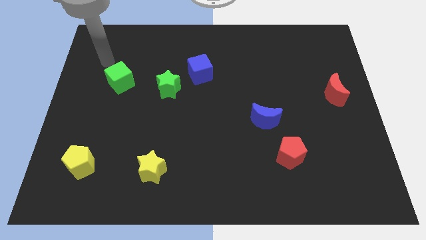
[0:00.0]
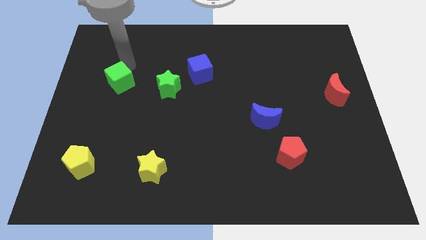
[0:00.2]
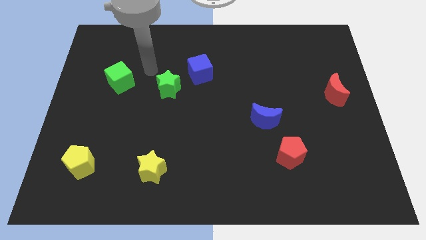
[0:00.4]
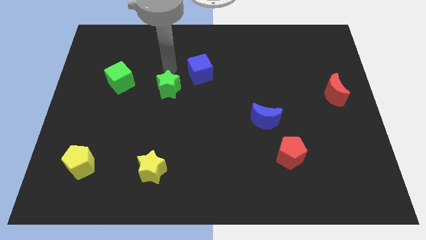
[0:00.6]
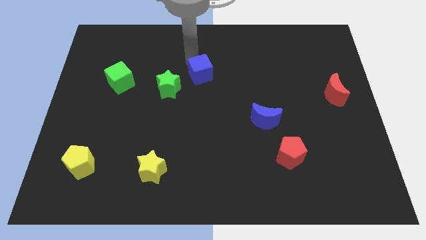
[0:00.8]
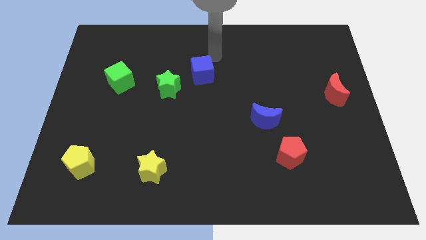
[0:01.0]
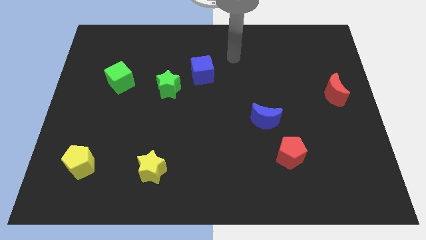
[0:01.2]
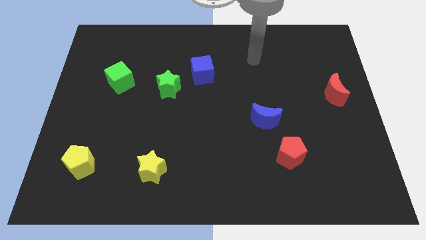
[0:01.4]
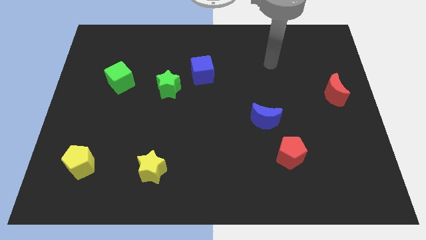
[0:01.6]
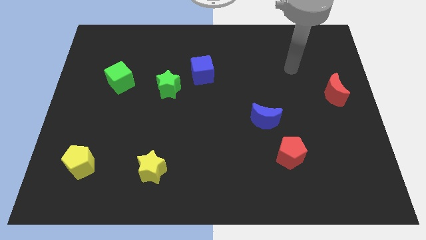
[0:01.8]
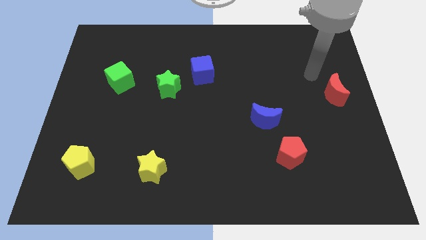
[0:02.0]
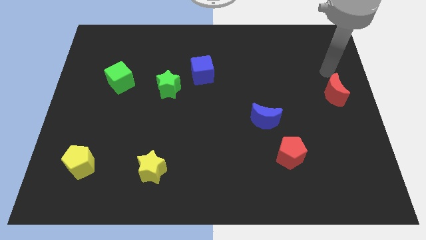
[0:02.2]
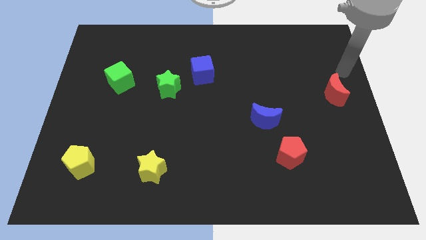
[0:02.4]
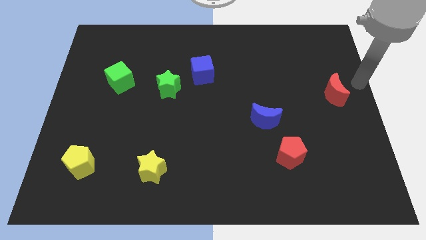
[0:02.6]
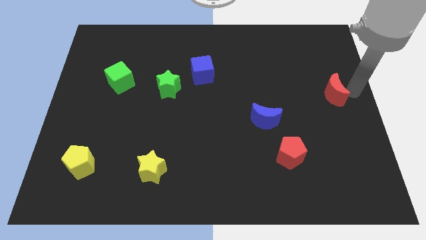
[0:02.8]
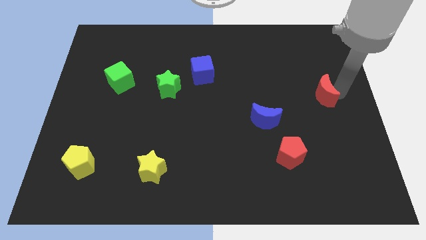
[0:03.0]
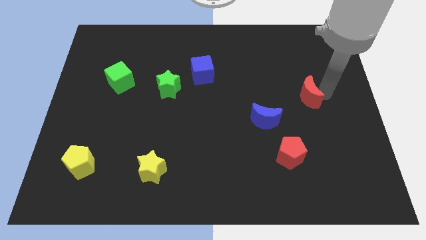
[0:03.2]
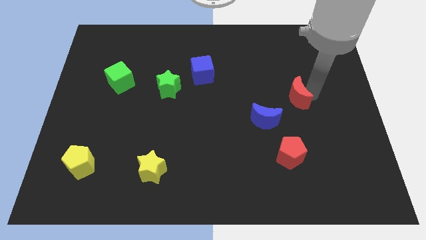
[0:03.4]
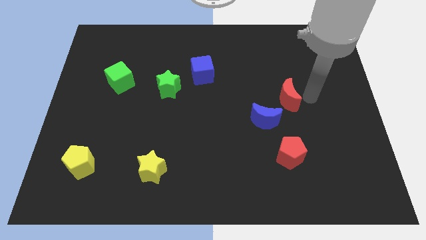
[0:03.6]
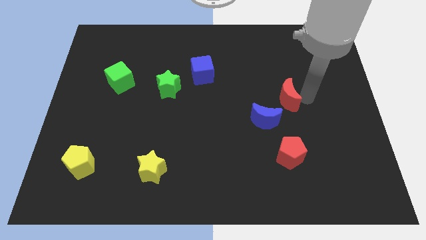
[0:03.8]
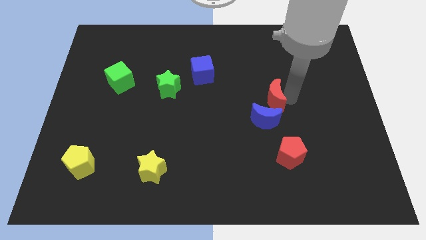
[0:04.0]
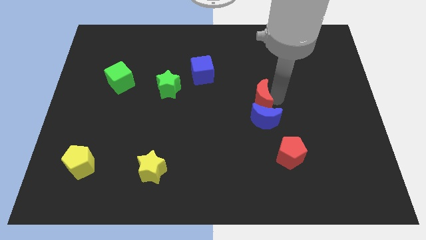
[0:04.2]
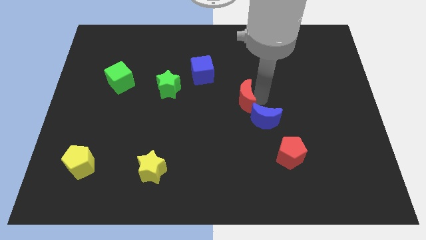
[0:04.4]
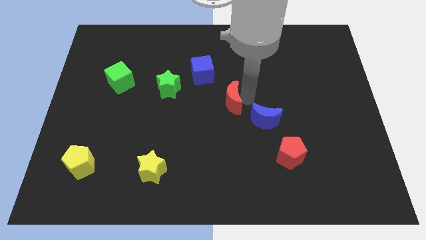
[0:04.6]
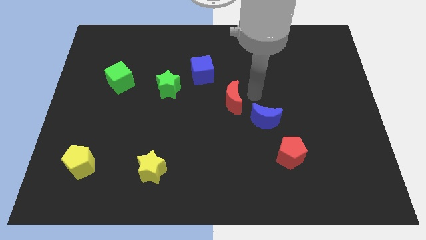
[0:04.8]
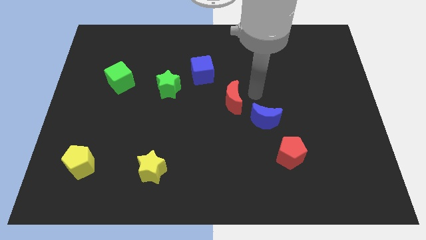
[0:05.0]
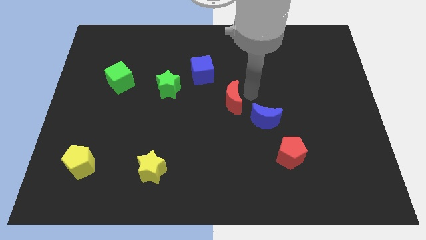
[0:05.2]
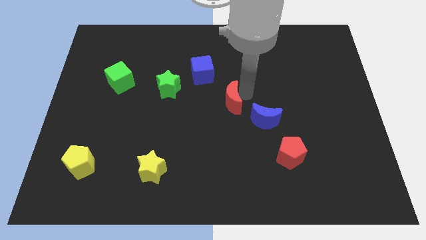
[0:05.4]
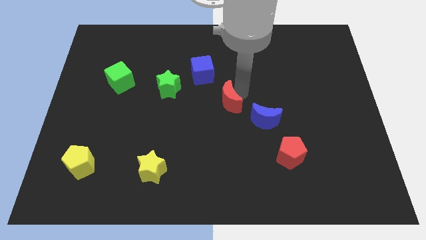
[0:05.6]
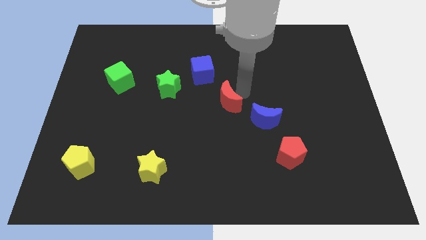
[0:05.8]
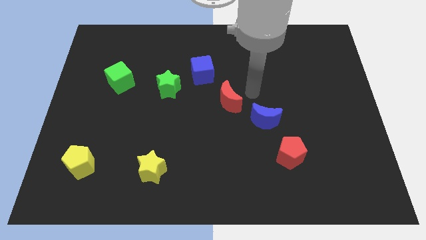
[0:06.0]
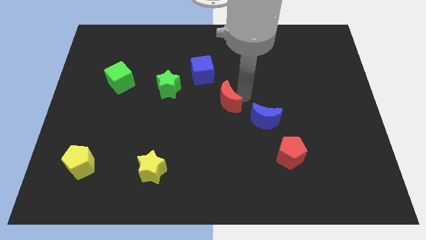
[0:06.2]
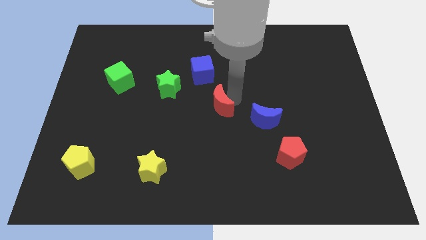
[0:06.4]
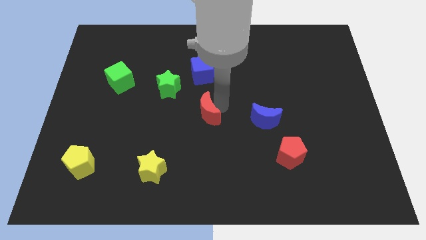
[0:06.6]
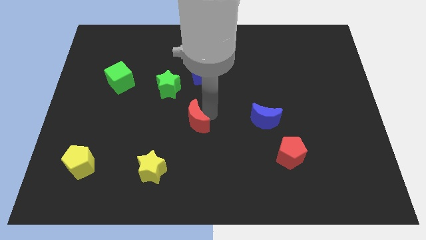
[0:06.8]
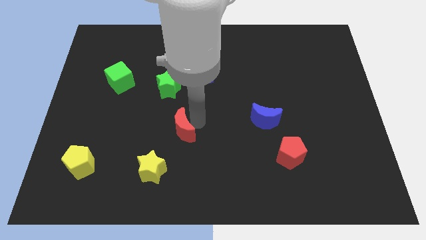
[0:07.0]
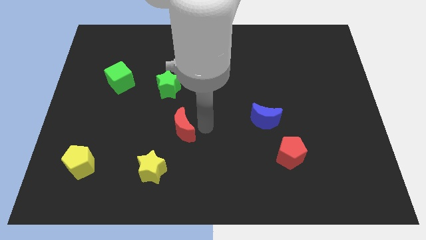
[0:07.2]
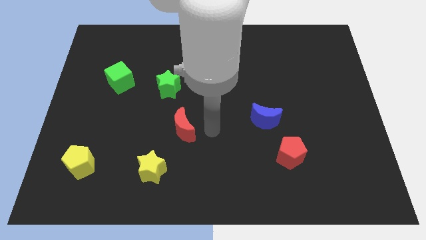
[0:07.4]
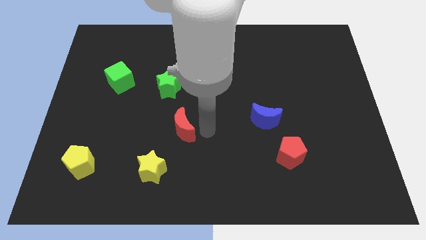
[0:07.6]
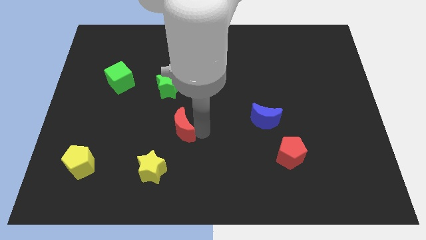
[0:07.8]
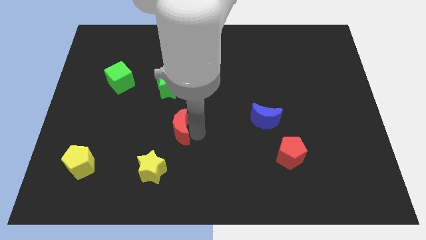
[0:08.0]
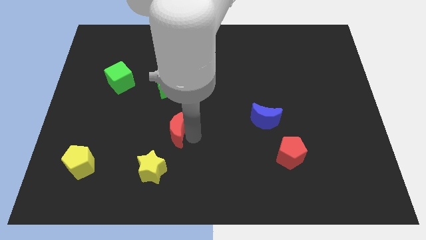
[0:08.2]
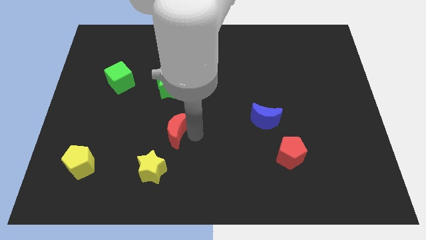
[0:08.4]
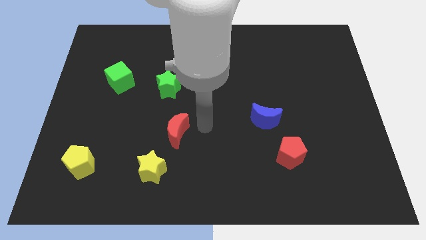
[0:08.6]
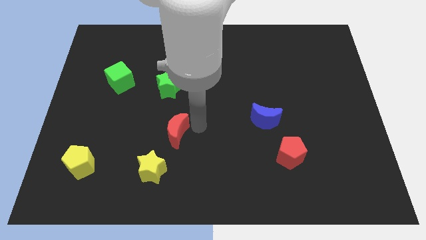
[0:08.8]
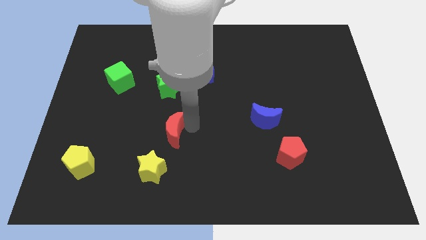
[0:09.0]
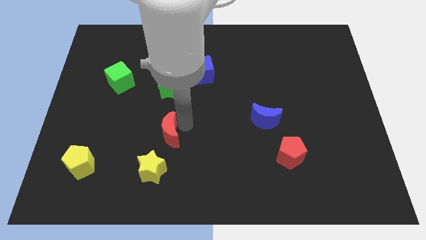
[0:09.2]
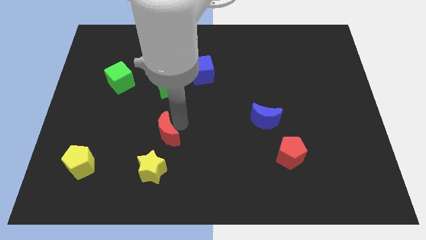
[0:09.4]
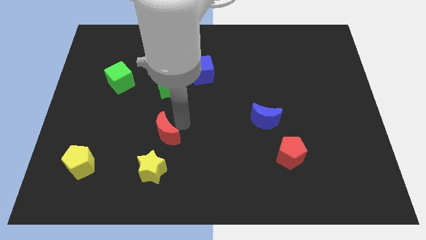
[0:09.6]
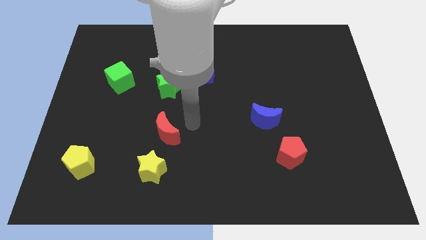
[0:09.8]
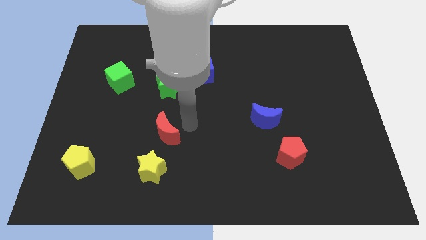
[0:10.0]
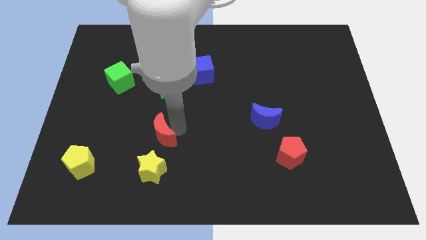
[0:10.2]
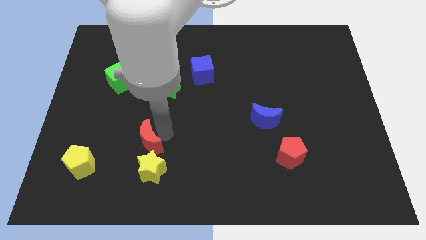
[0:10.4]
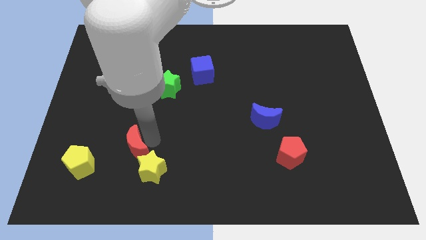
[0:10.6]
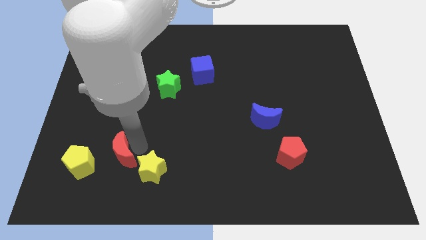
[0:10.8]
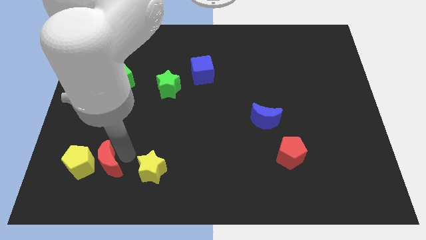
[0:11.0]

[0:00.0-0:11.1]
slide the red moon close to the yellow pentagon

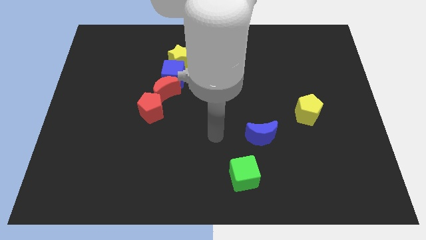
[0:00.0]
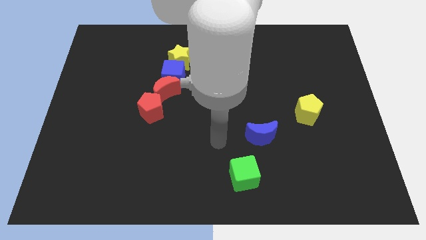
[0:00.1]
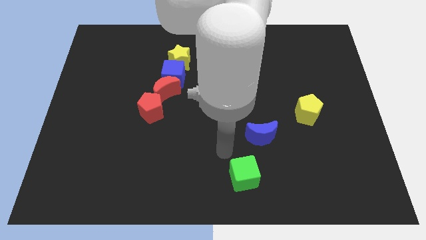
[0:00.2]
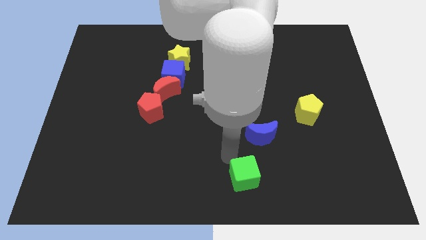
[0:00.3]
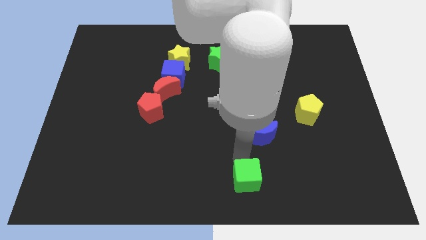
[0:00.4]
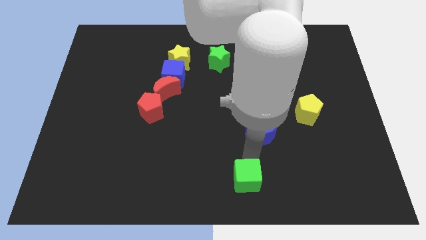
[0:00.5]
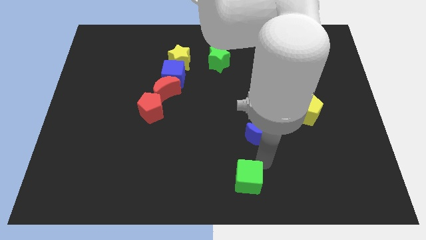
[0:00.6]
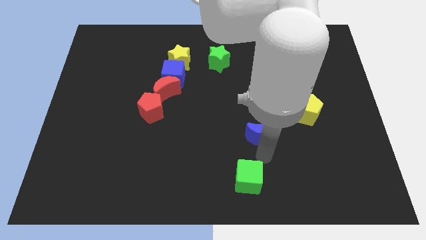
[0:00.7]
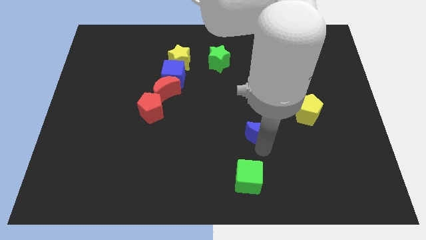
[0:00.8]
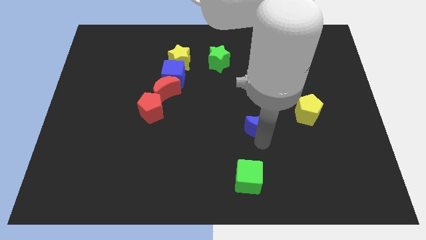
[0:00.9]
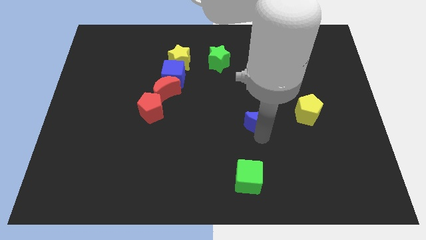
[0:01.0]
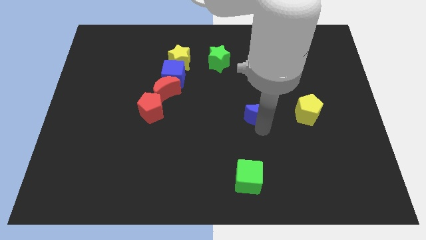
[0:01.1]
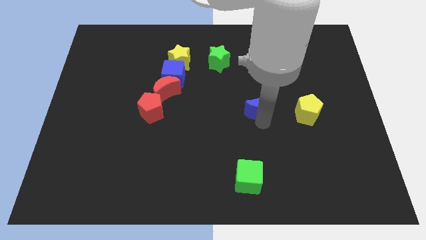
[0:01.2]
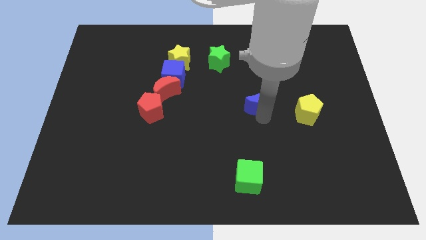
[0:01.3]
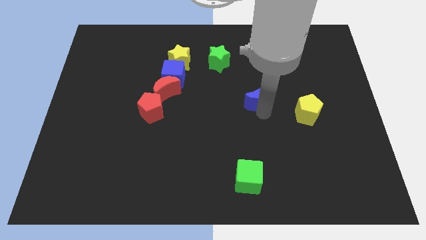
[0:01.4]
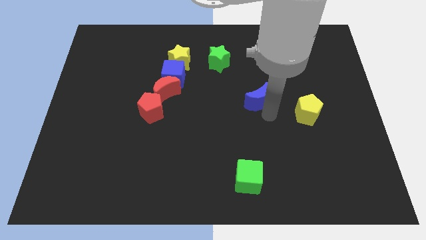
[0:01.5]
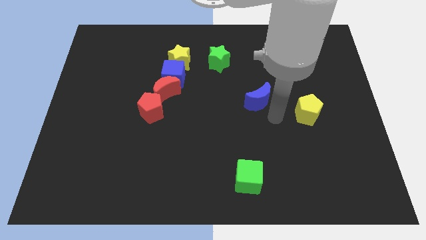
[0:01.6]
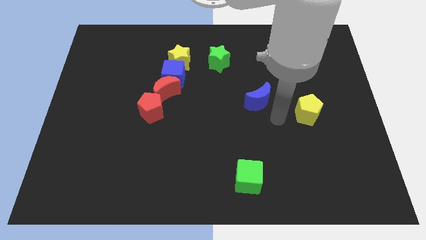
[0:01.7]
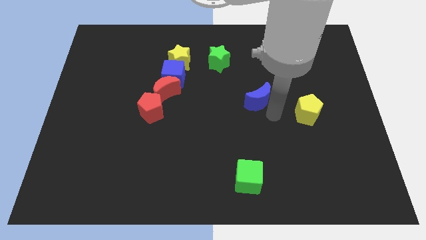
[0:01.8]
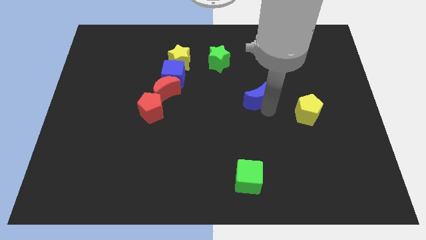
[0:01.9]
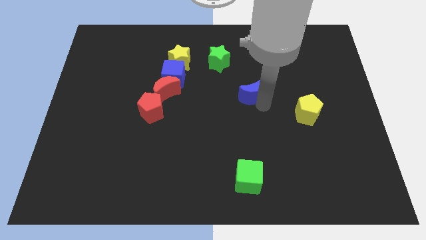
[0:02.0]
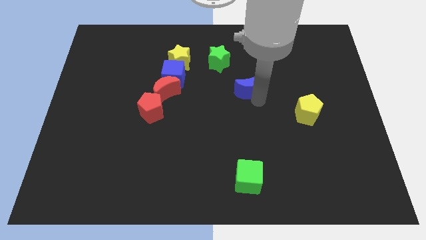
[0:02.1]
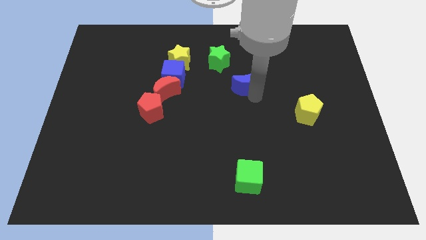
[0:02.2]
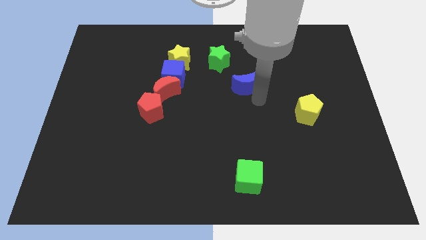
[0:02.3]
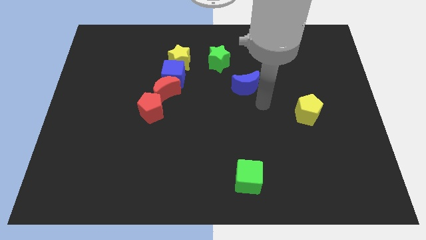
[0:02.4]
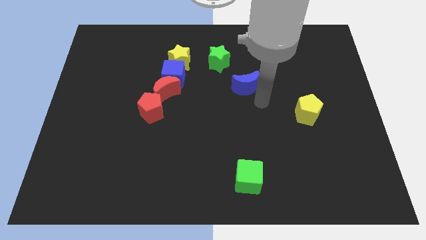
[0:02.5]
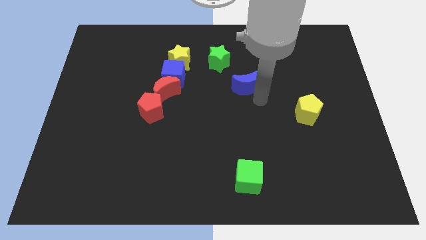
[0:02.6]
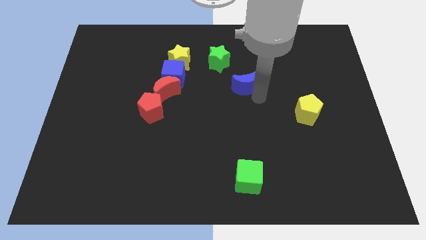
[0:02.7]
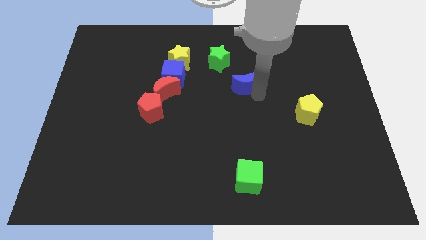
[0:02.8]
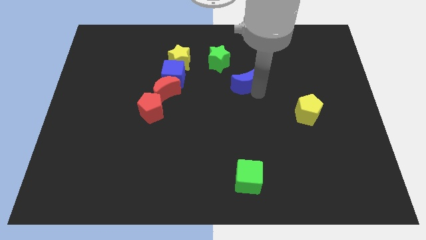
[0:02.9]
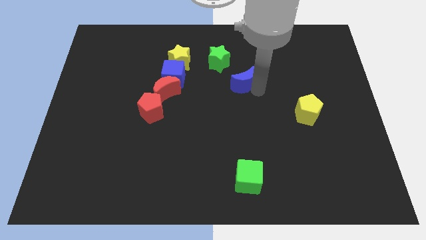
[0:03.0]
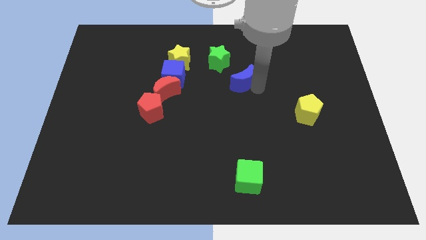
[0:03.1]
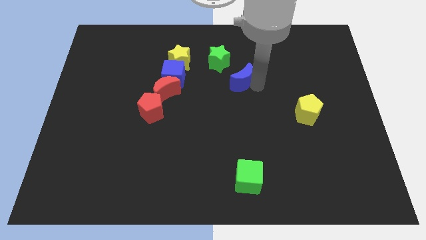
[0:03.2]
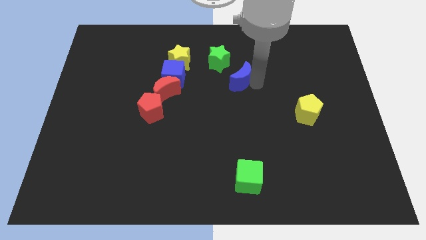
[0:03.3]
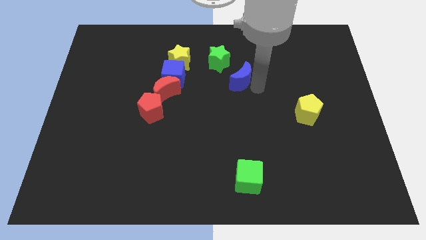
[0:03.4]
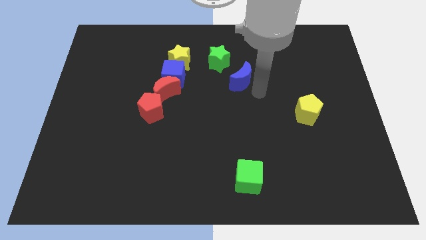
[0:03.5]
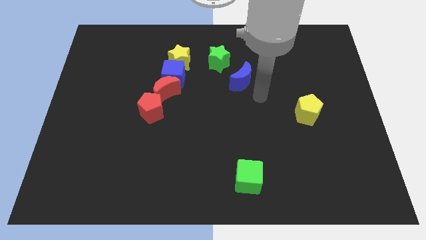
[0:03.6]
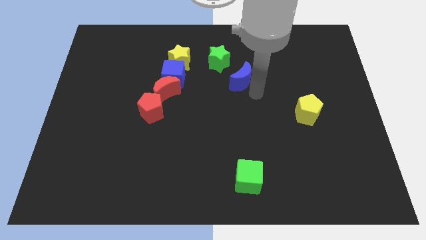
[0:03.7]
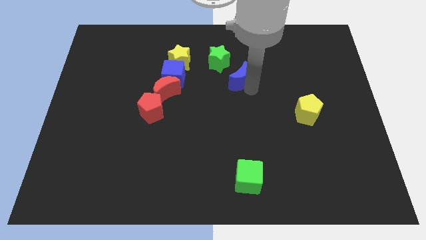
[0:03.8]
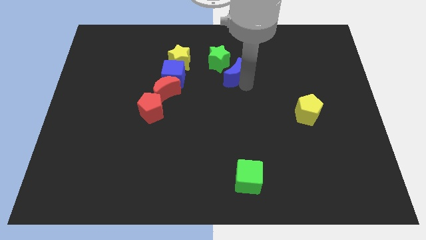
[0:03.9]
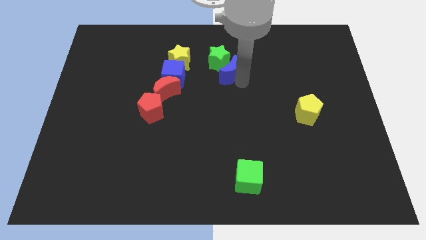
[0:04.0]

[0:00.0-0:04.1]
push the blue moon close to the green star
